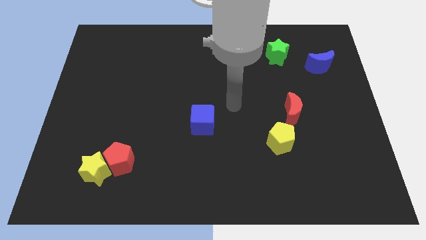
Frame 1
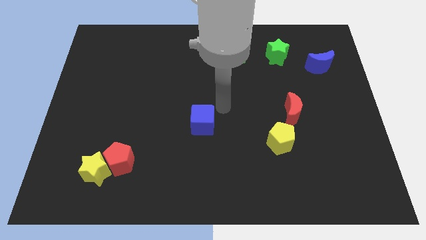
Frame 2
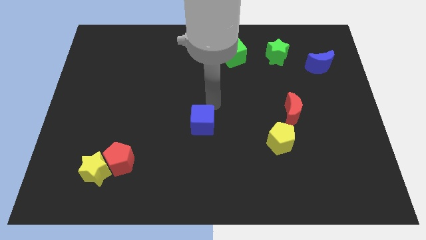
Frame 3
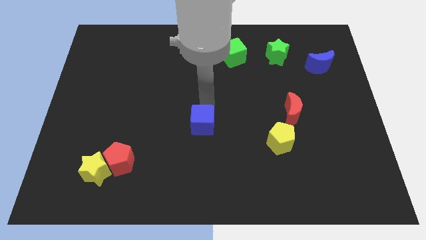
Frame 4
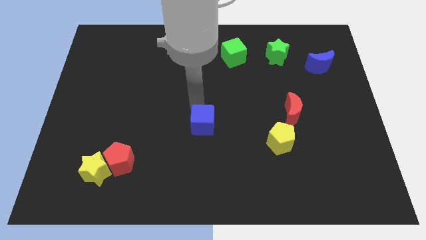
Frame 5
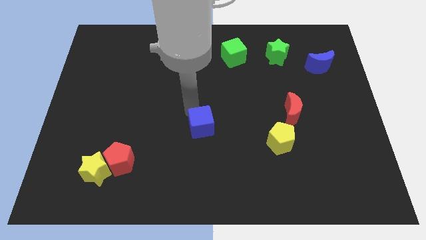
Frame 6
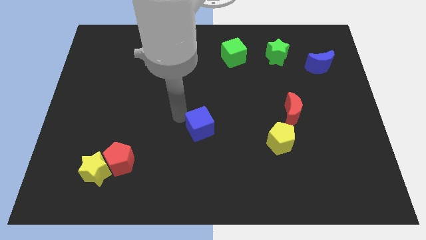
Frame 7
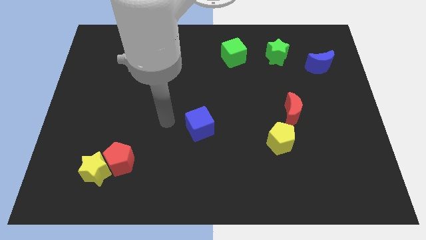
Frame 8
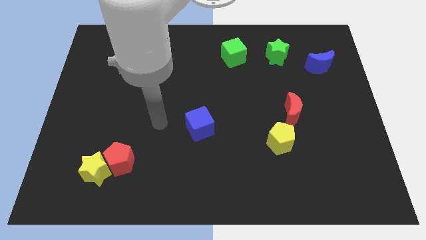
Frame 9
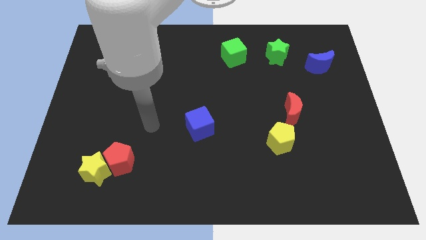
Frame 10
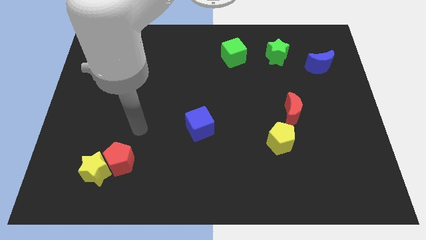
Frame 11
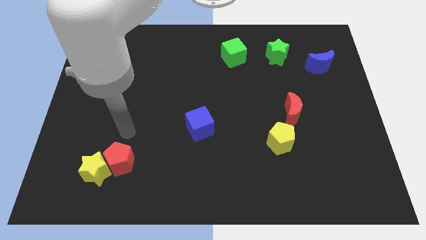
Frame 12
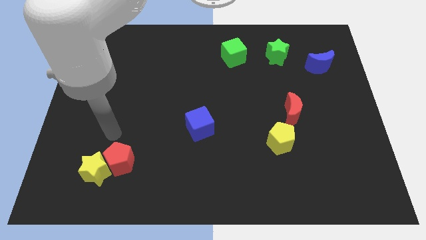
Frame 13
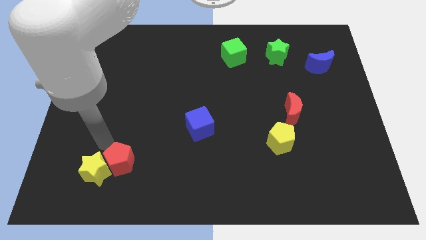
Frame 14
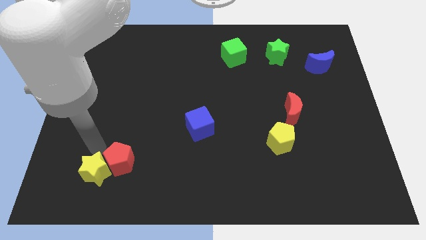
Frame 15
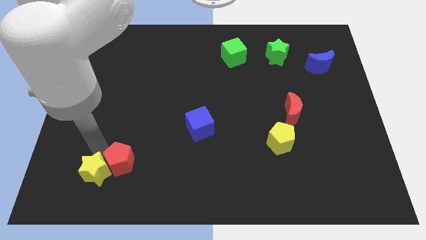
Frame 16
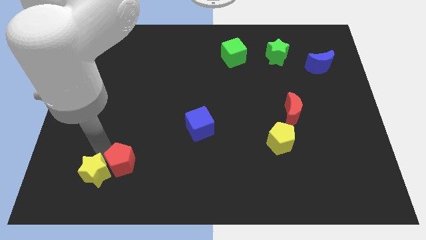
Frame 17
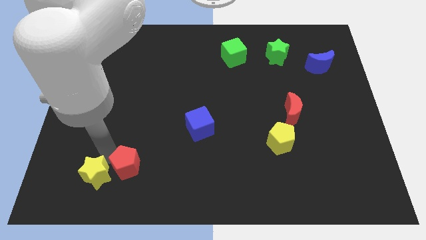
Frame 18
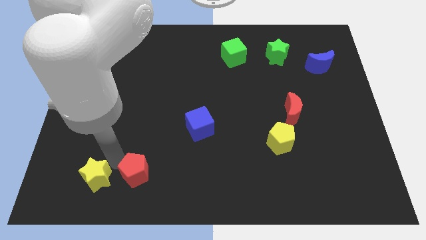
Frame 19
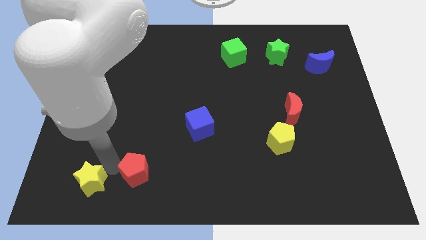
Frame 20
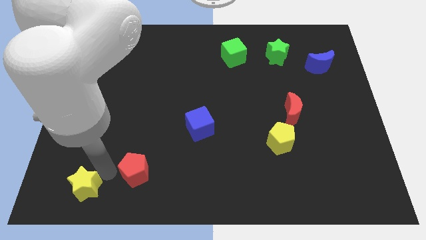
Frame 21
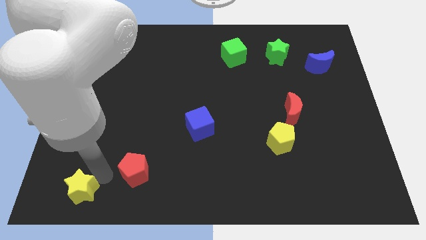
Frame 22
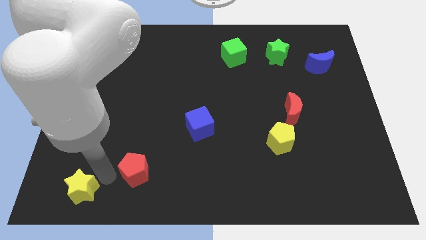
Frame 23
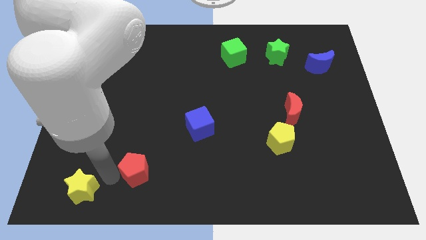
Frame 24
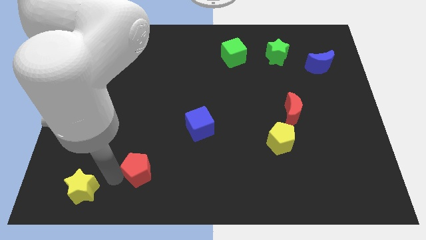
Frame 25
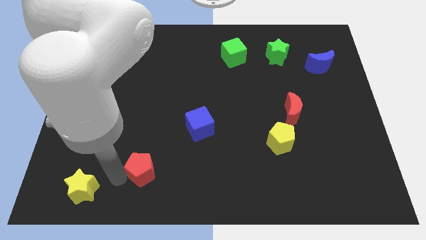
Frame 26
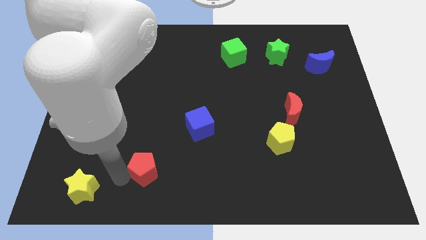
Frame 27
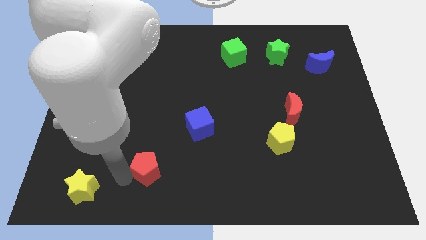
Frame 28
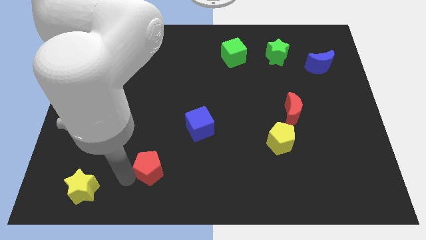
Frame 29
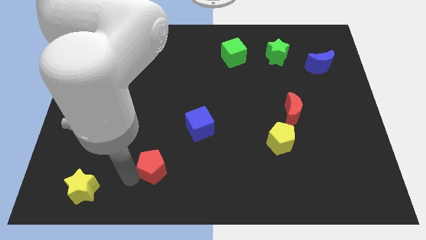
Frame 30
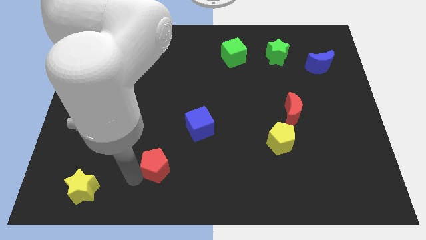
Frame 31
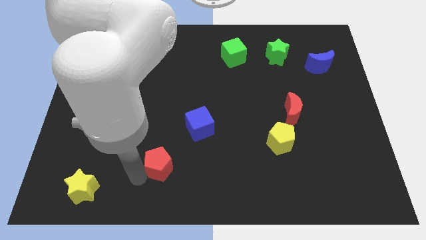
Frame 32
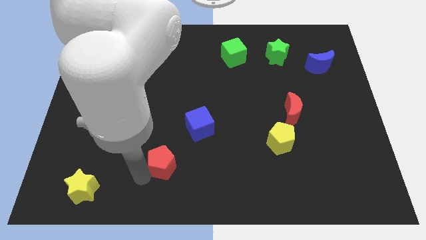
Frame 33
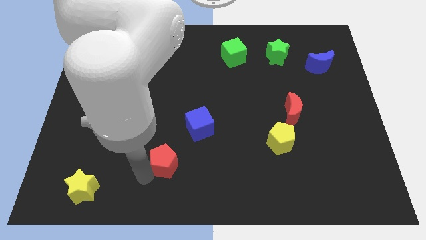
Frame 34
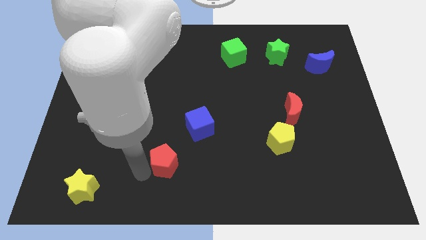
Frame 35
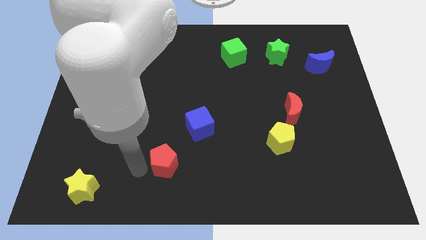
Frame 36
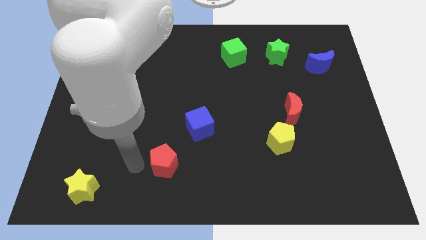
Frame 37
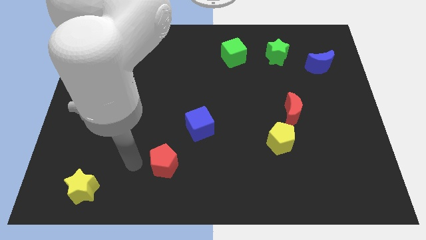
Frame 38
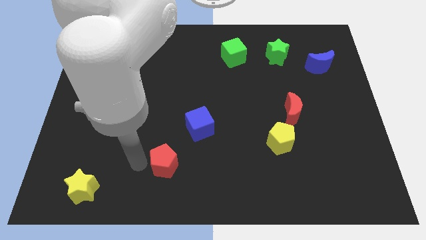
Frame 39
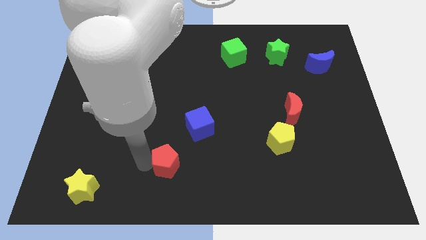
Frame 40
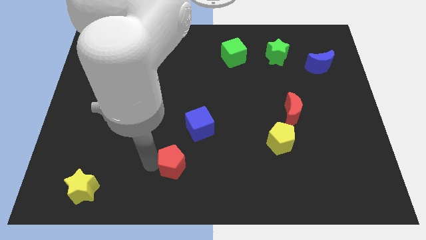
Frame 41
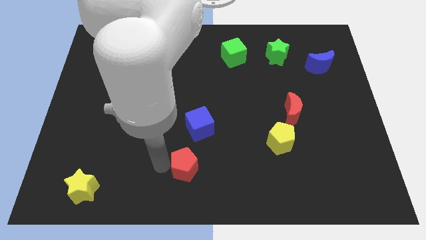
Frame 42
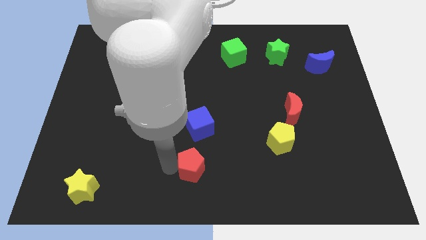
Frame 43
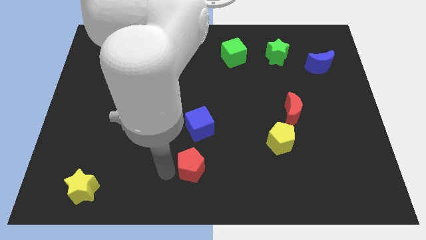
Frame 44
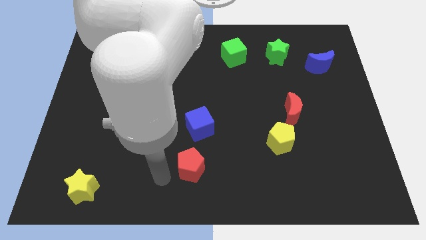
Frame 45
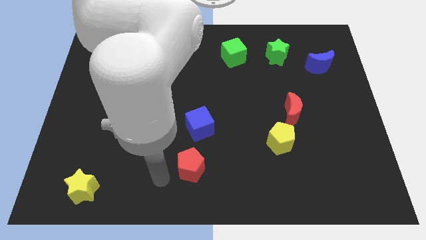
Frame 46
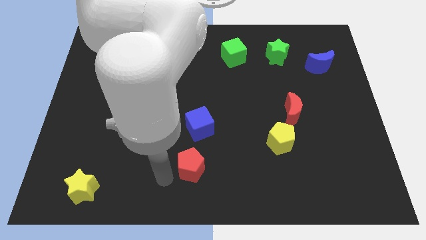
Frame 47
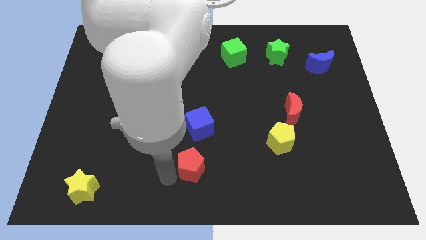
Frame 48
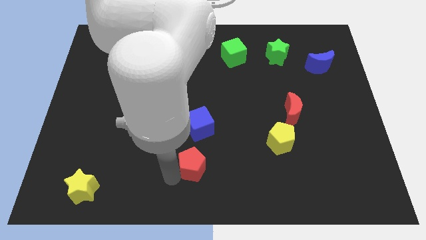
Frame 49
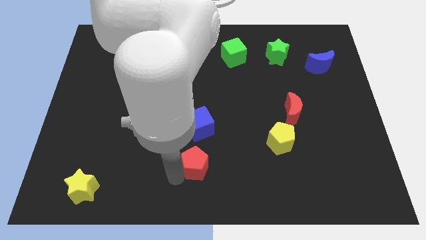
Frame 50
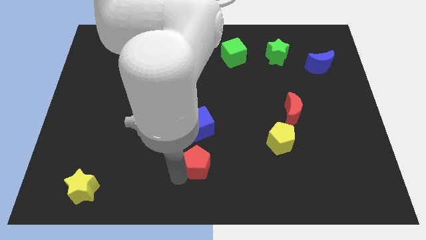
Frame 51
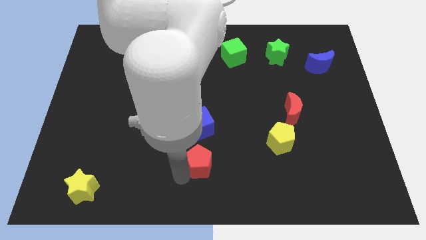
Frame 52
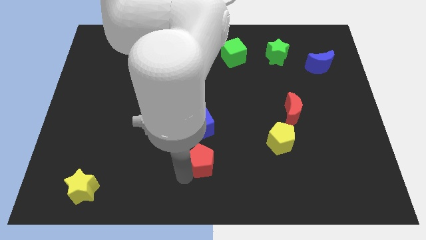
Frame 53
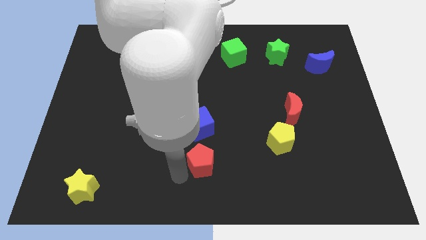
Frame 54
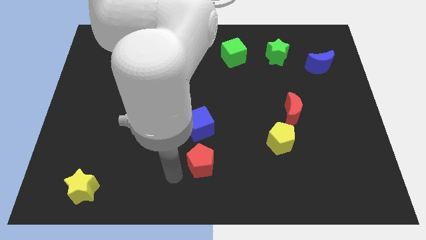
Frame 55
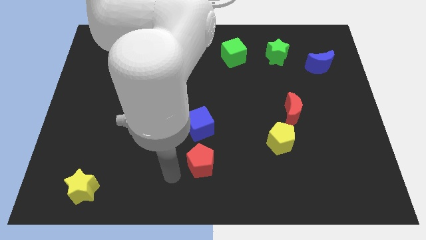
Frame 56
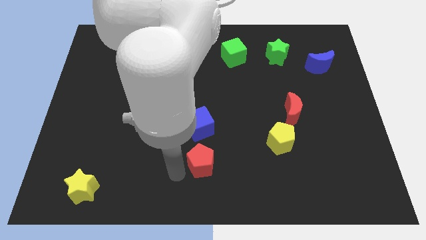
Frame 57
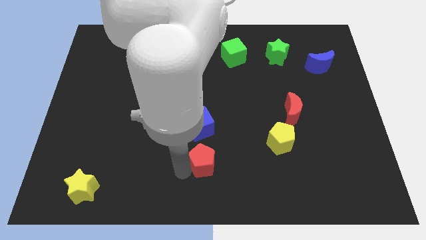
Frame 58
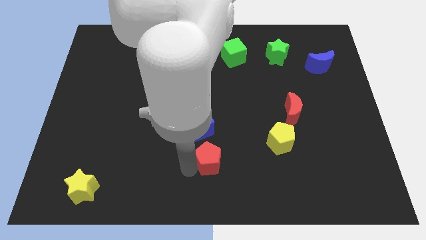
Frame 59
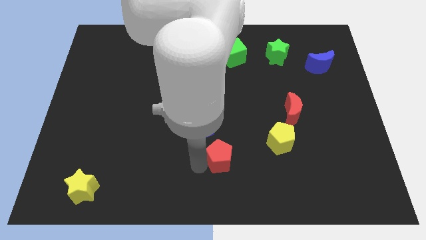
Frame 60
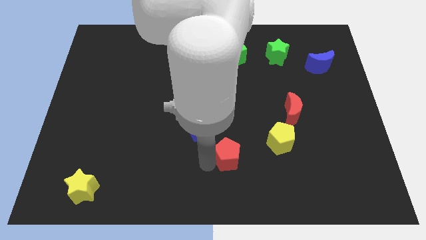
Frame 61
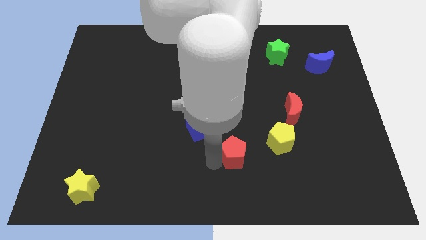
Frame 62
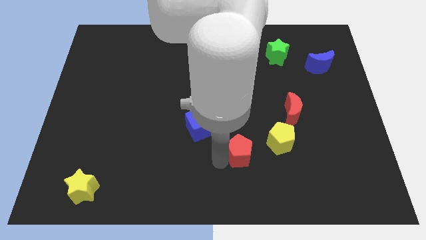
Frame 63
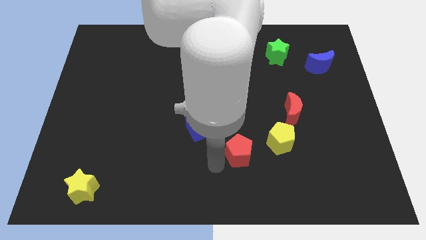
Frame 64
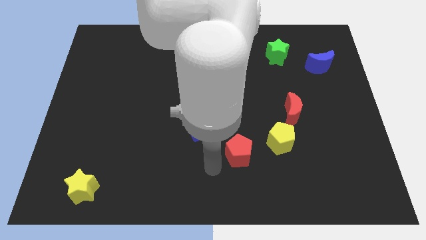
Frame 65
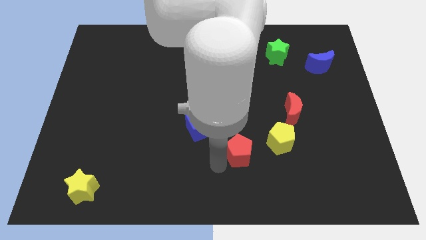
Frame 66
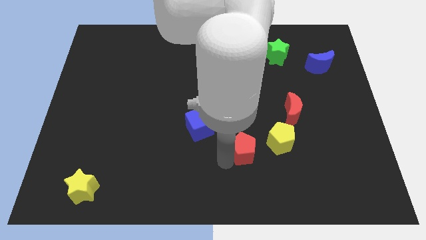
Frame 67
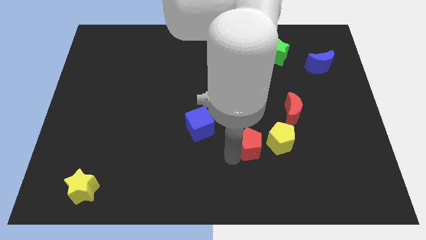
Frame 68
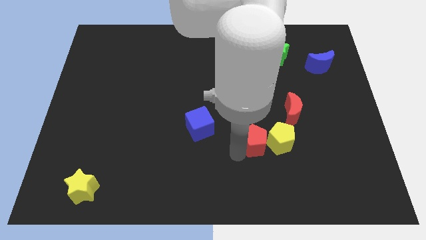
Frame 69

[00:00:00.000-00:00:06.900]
slide the red pentagon diagonally down and to the left of the red moon
